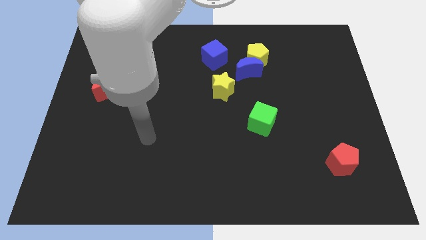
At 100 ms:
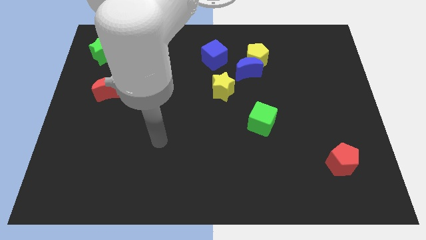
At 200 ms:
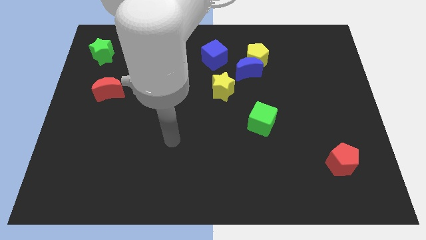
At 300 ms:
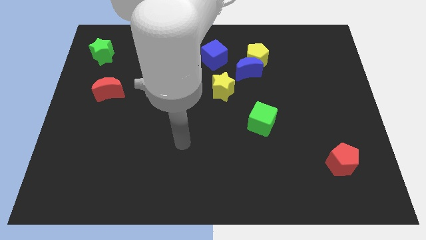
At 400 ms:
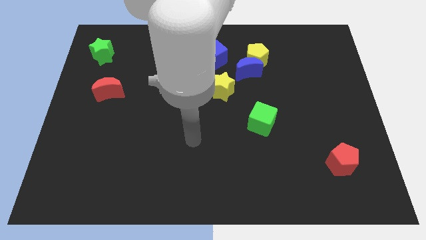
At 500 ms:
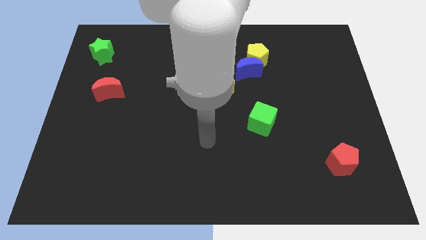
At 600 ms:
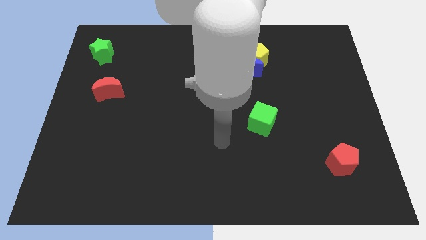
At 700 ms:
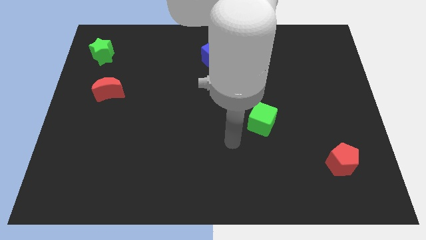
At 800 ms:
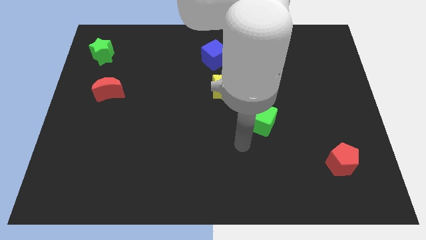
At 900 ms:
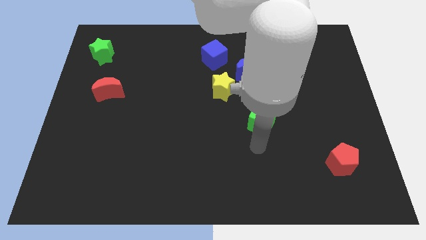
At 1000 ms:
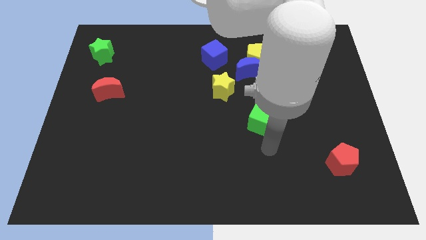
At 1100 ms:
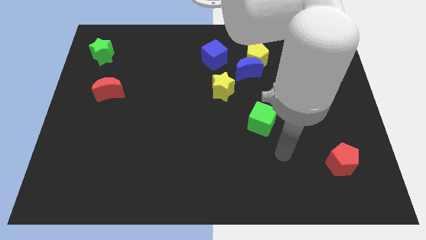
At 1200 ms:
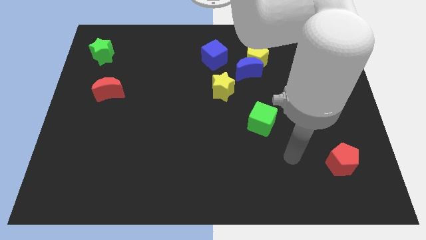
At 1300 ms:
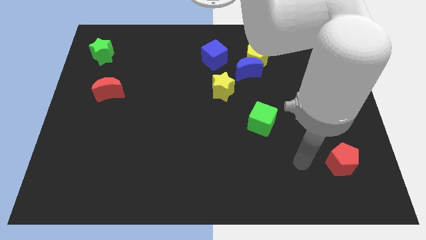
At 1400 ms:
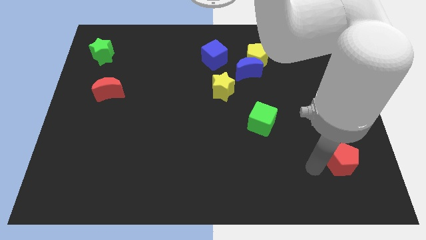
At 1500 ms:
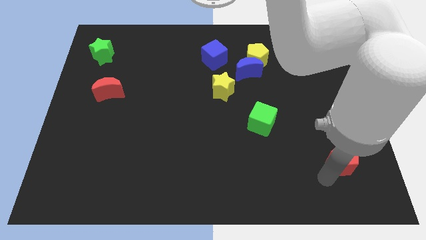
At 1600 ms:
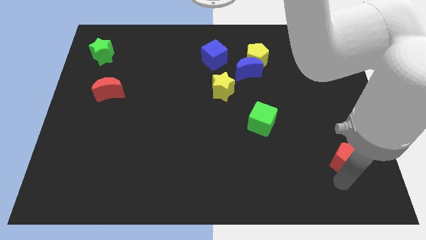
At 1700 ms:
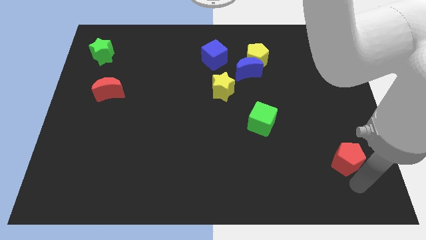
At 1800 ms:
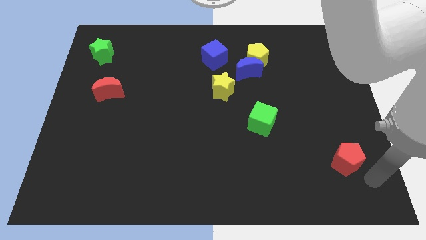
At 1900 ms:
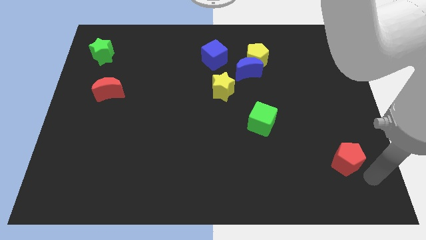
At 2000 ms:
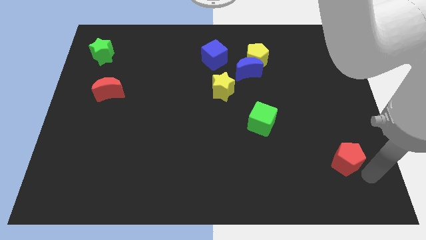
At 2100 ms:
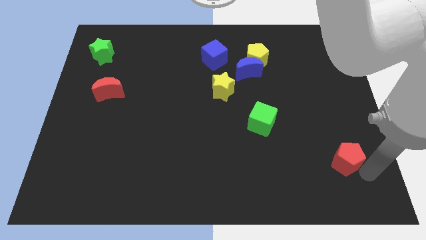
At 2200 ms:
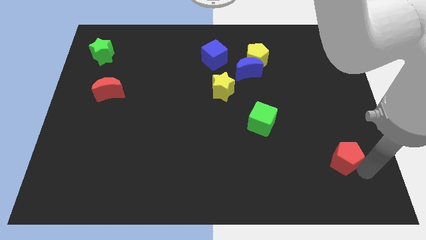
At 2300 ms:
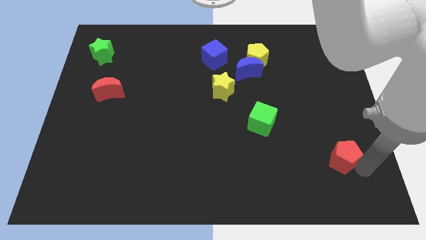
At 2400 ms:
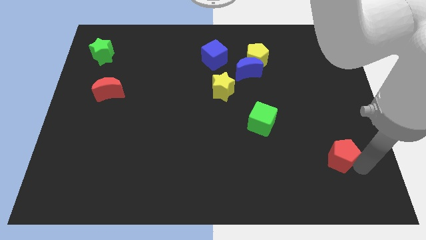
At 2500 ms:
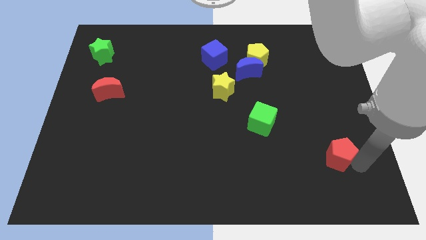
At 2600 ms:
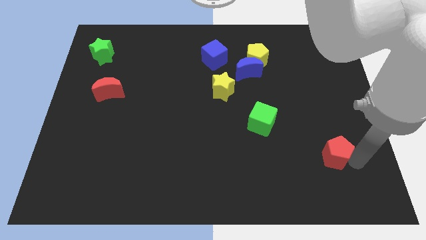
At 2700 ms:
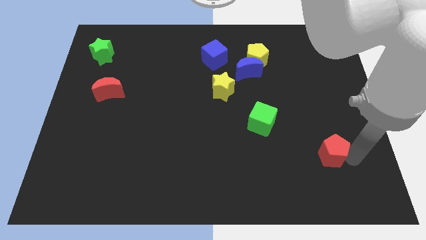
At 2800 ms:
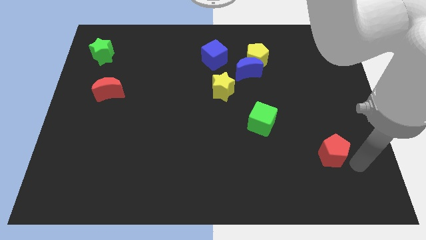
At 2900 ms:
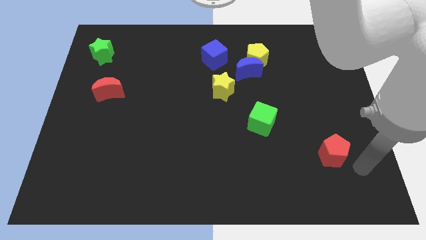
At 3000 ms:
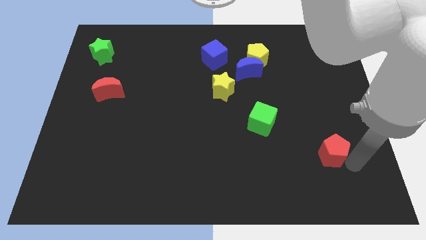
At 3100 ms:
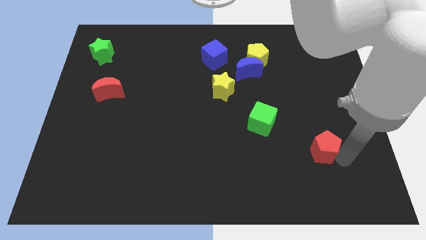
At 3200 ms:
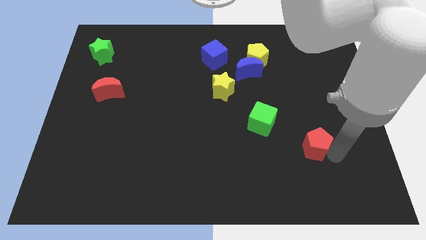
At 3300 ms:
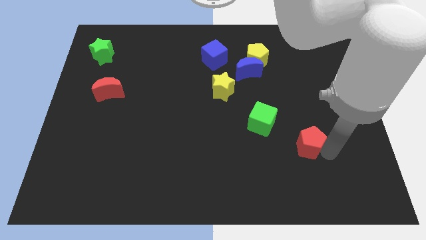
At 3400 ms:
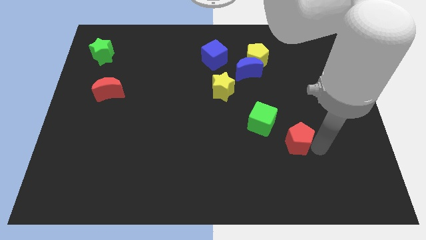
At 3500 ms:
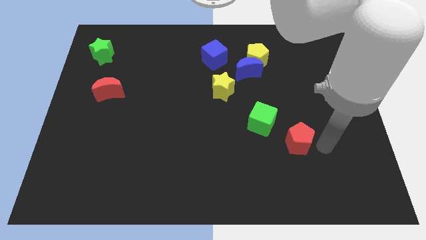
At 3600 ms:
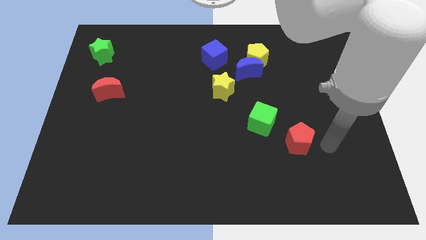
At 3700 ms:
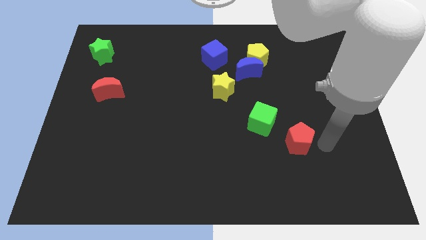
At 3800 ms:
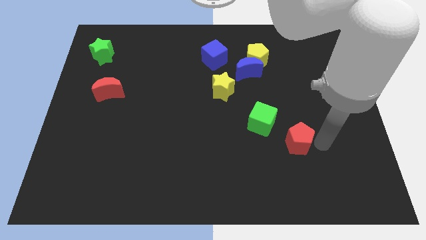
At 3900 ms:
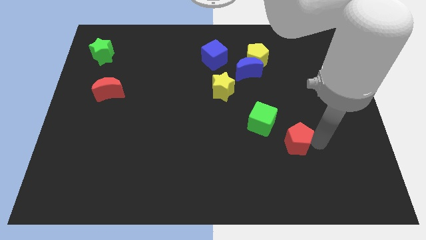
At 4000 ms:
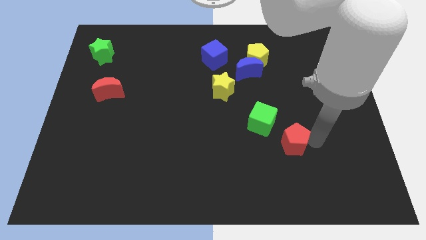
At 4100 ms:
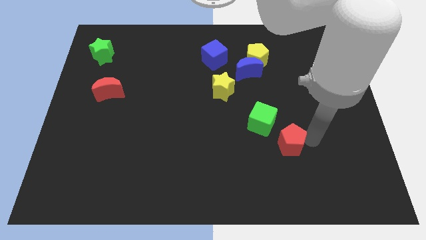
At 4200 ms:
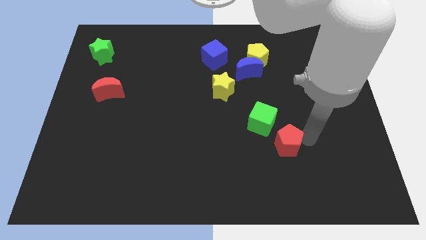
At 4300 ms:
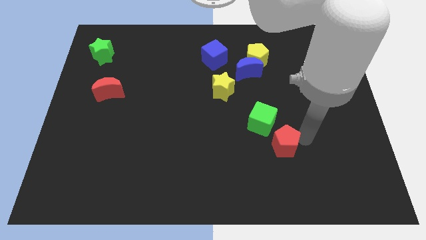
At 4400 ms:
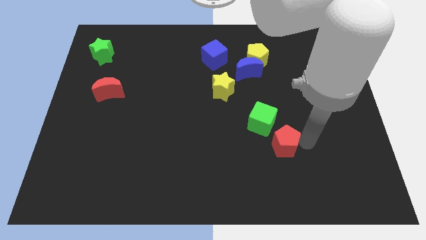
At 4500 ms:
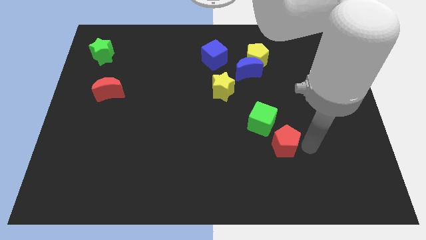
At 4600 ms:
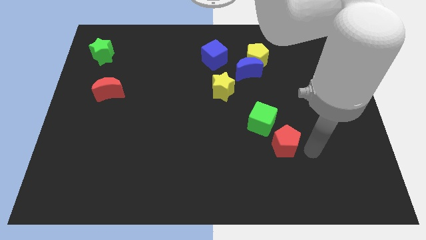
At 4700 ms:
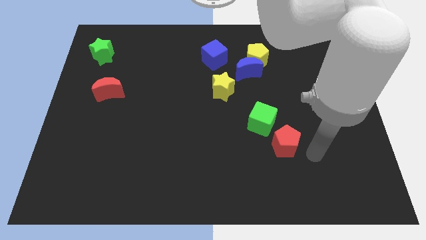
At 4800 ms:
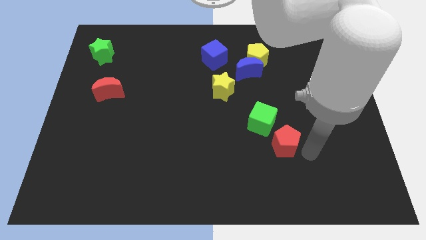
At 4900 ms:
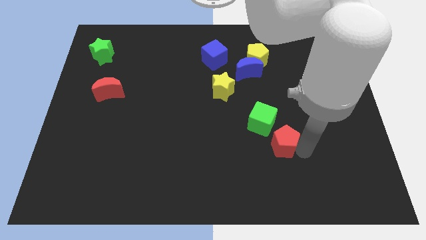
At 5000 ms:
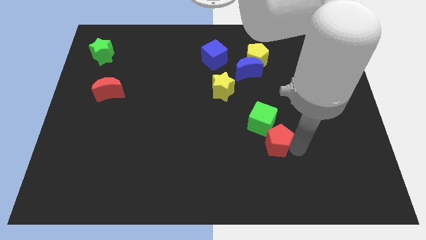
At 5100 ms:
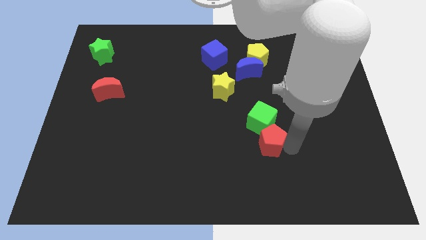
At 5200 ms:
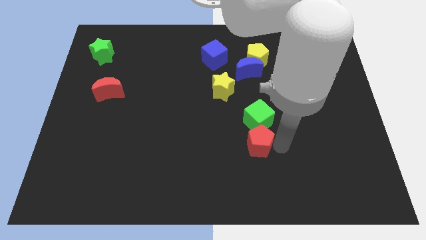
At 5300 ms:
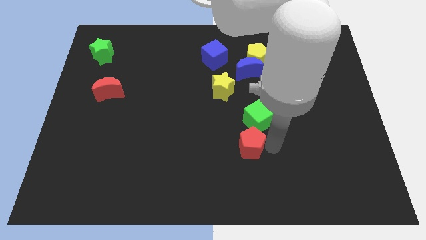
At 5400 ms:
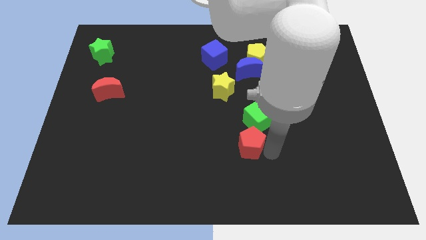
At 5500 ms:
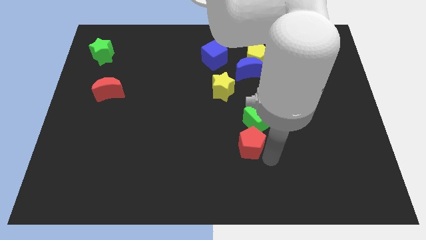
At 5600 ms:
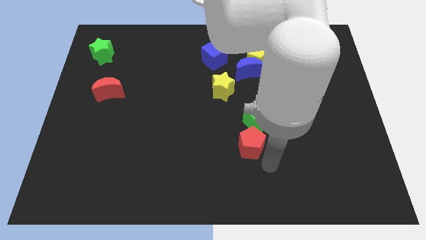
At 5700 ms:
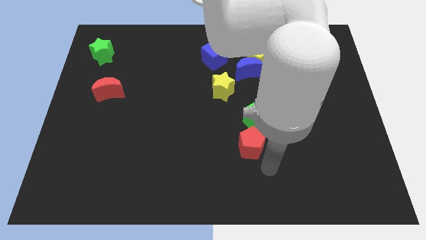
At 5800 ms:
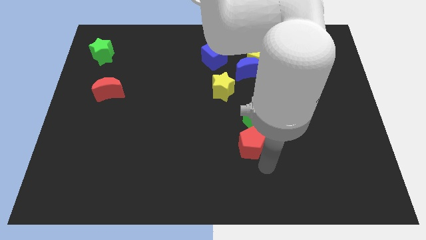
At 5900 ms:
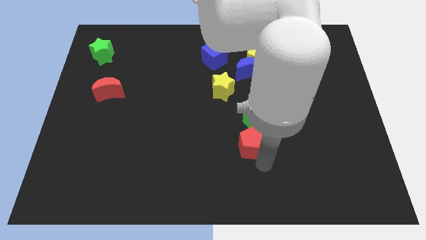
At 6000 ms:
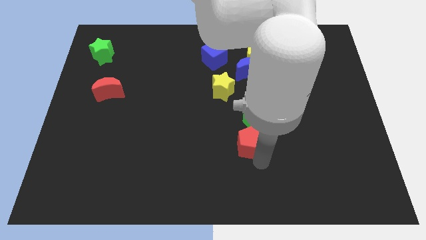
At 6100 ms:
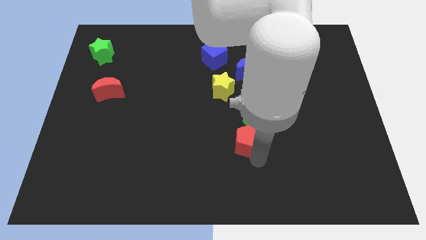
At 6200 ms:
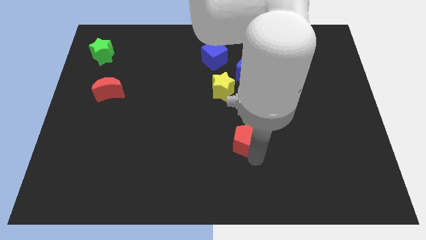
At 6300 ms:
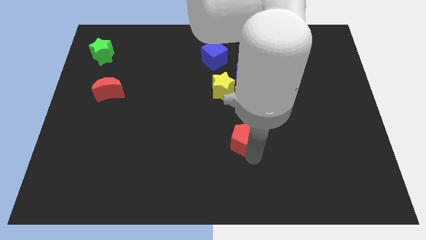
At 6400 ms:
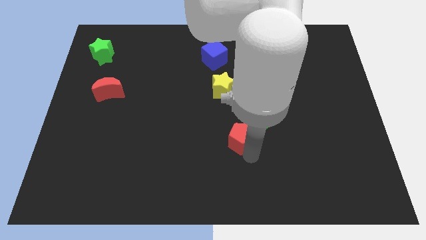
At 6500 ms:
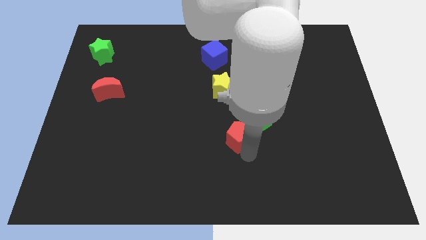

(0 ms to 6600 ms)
slide the red pentagon to the center
